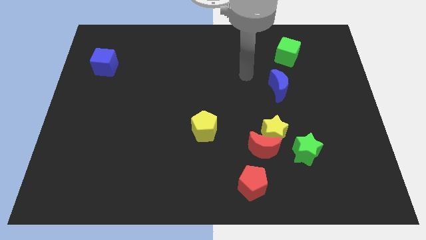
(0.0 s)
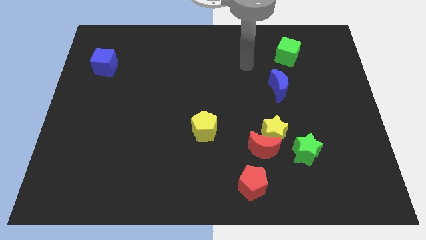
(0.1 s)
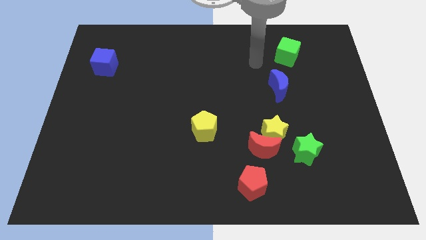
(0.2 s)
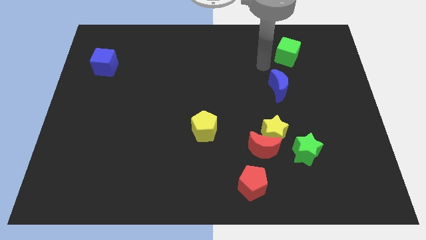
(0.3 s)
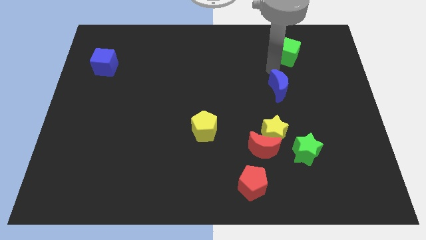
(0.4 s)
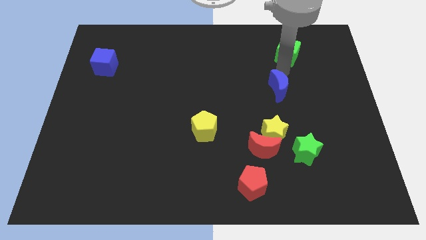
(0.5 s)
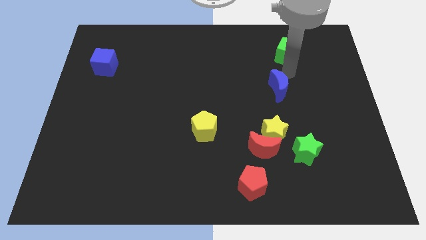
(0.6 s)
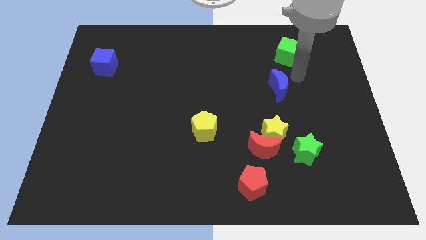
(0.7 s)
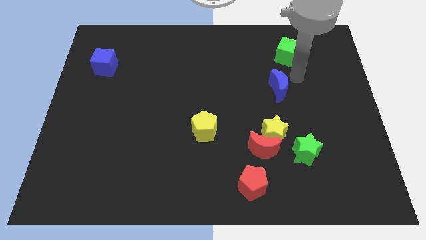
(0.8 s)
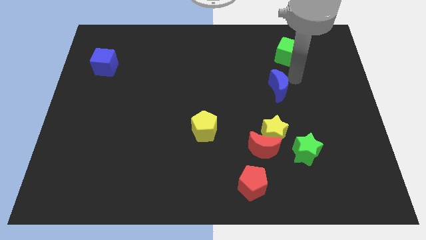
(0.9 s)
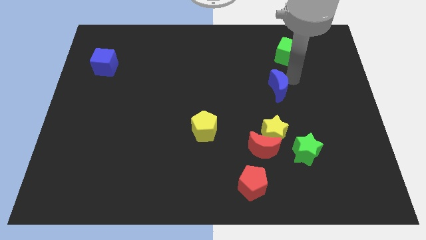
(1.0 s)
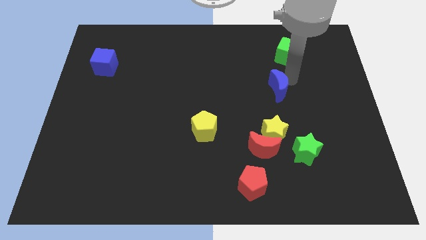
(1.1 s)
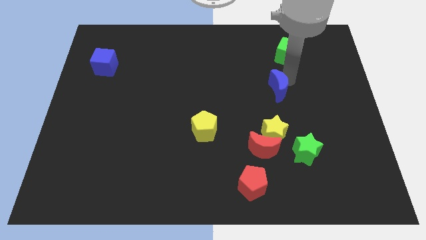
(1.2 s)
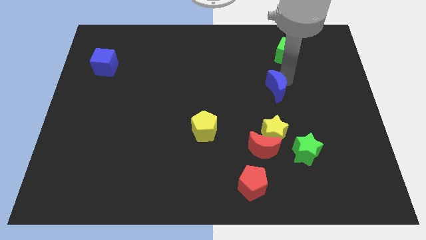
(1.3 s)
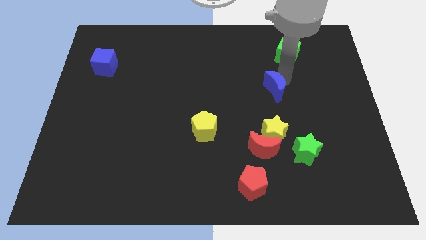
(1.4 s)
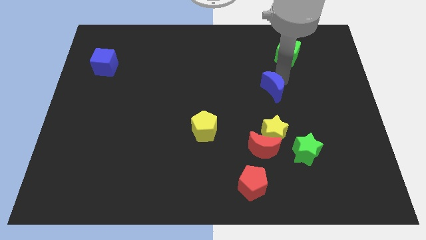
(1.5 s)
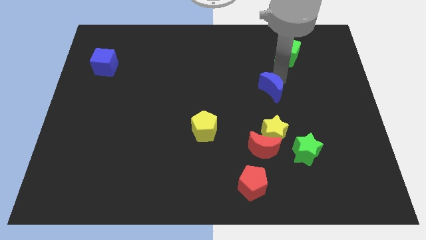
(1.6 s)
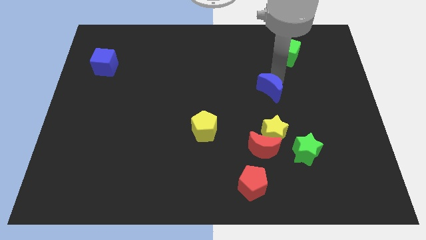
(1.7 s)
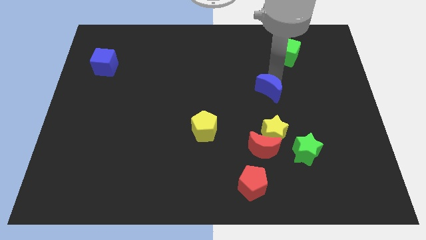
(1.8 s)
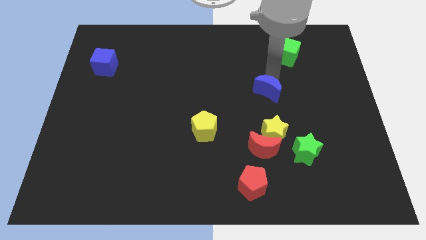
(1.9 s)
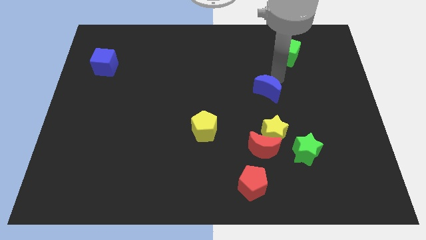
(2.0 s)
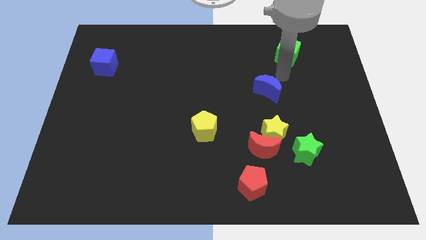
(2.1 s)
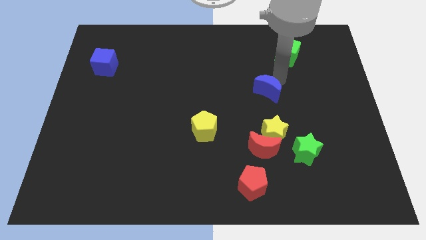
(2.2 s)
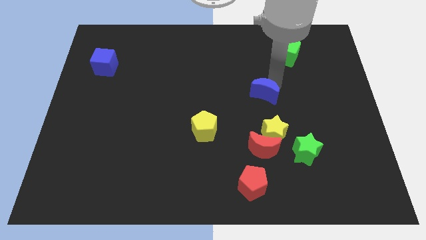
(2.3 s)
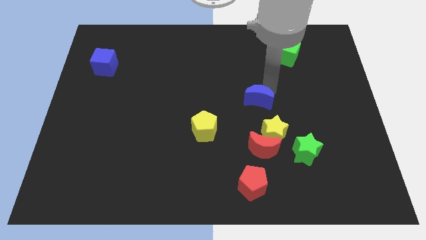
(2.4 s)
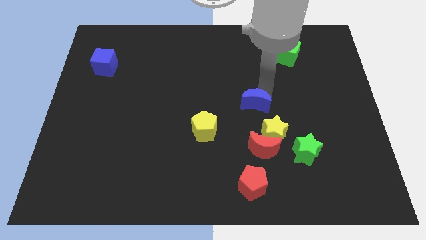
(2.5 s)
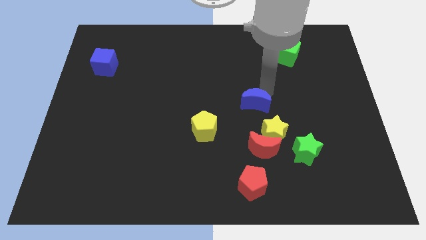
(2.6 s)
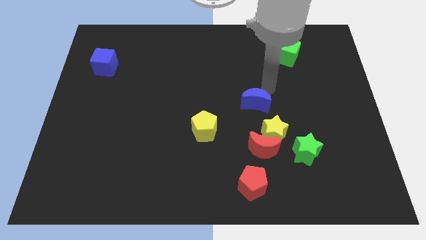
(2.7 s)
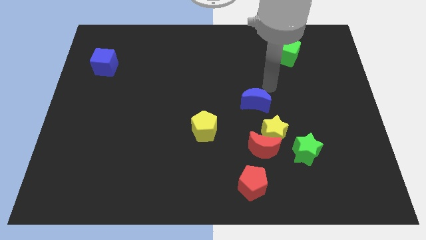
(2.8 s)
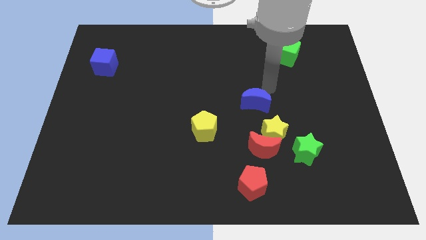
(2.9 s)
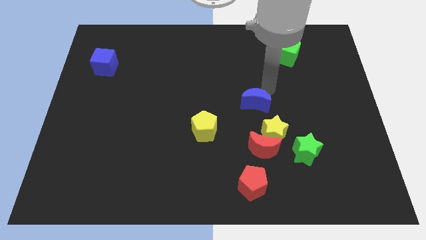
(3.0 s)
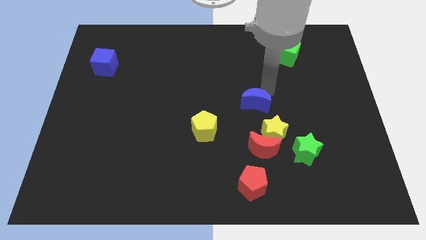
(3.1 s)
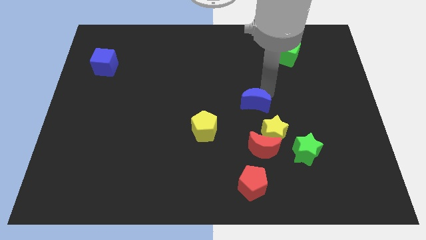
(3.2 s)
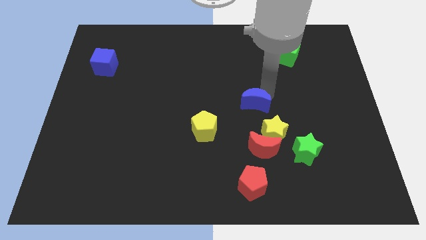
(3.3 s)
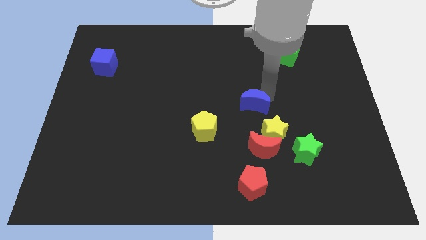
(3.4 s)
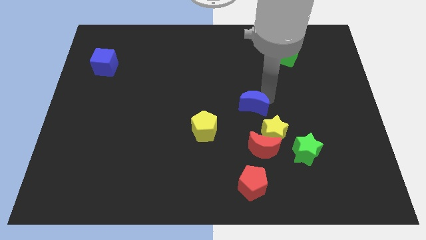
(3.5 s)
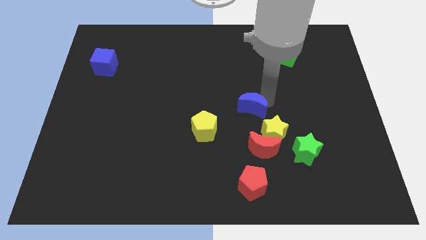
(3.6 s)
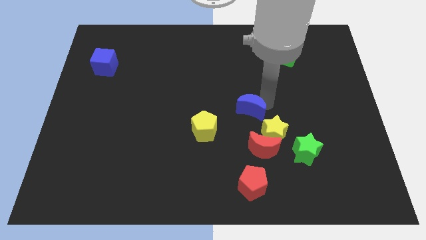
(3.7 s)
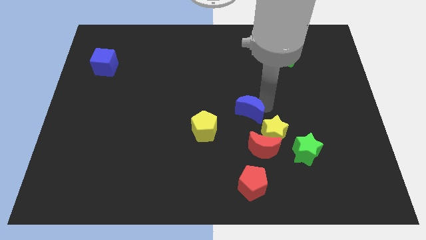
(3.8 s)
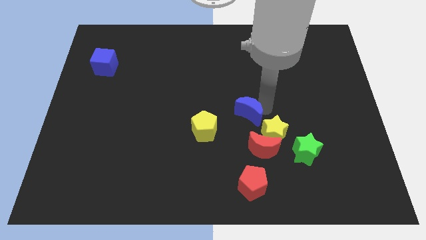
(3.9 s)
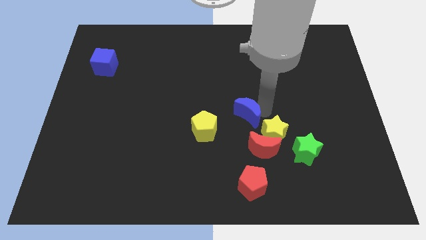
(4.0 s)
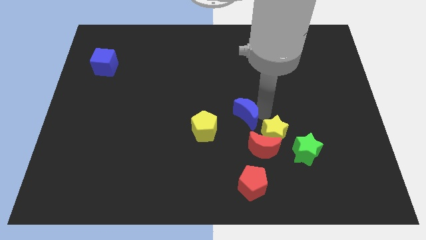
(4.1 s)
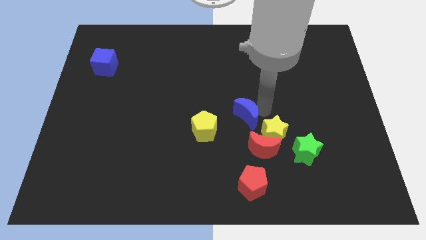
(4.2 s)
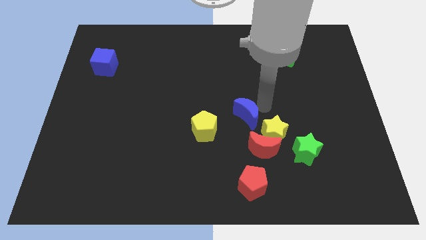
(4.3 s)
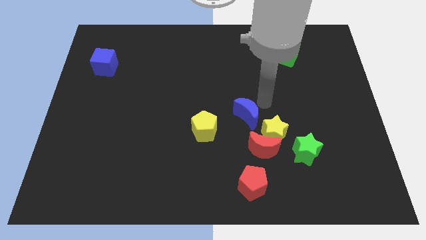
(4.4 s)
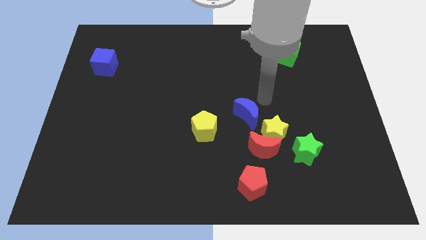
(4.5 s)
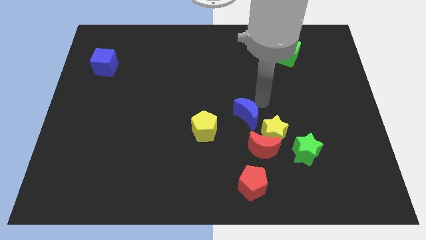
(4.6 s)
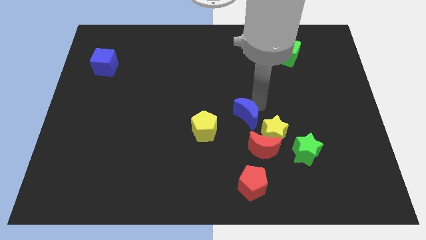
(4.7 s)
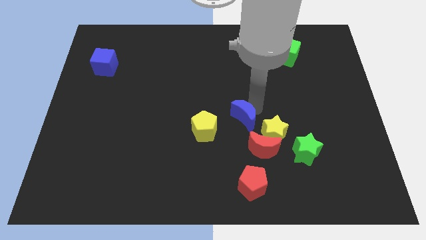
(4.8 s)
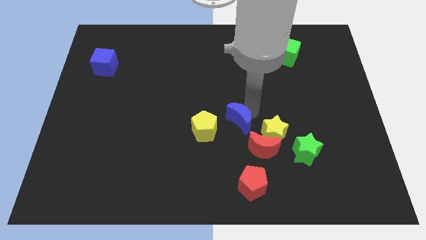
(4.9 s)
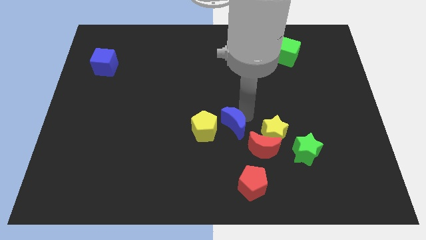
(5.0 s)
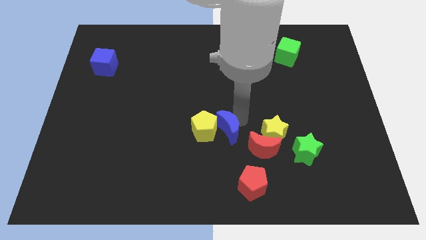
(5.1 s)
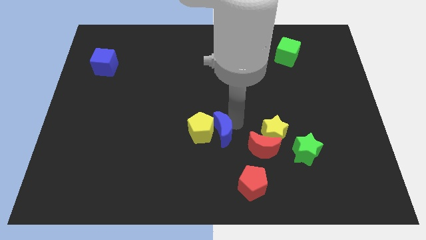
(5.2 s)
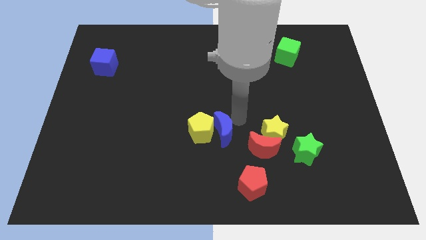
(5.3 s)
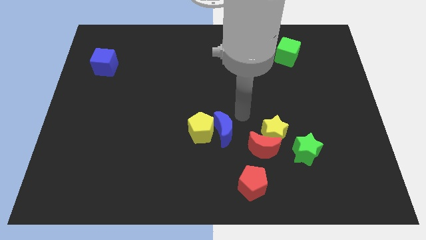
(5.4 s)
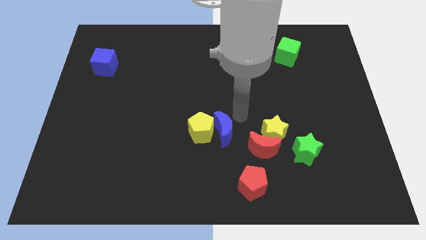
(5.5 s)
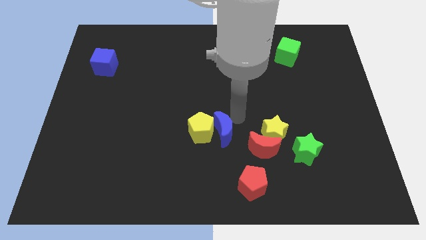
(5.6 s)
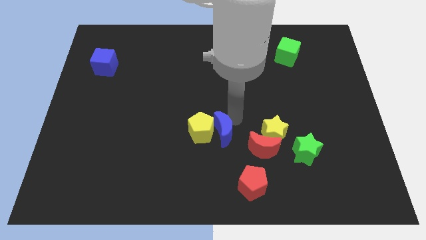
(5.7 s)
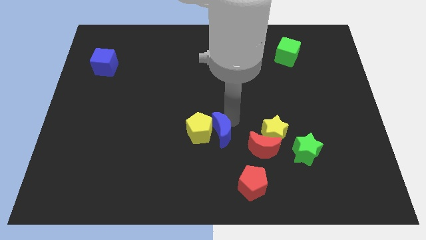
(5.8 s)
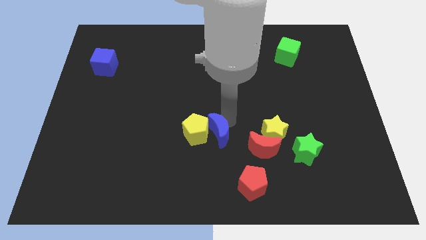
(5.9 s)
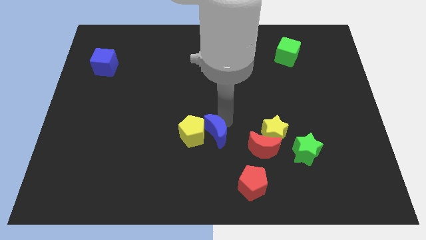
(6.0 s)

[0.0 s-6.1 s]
slide the blue moon down and left

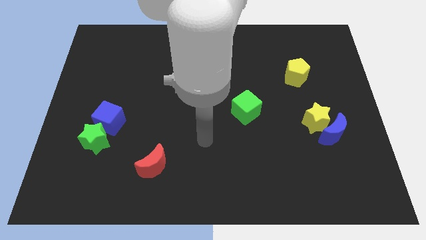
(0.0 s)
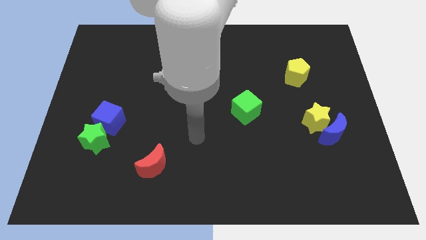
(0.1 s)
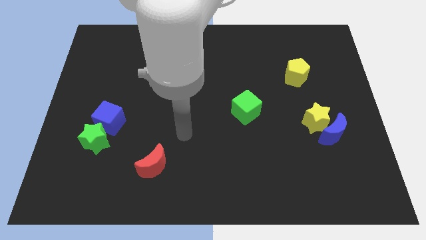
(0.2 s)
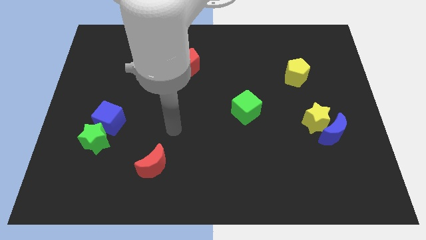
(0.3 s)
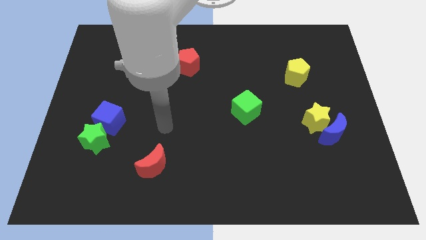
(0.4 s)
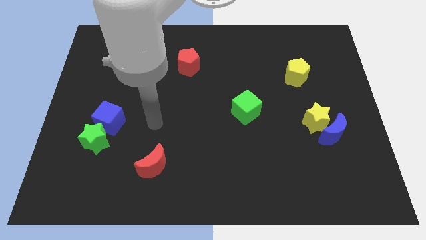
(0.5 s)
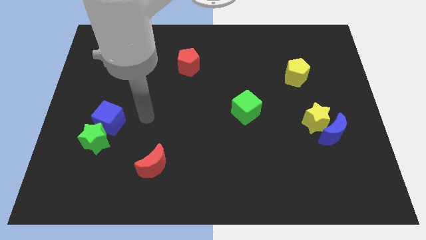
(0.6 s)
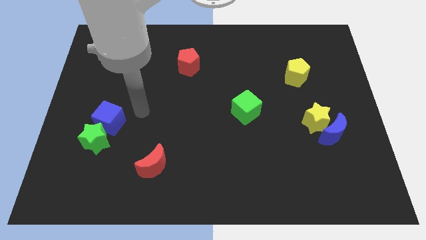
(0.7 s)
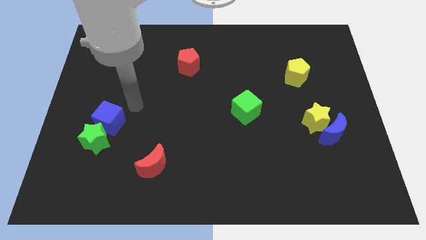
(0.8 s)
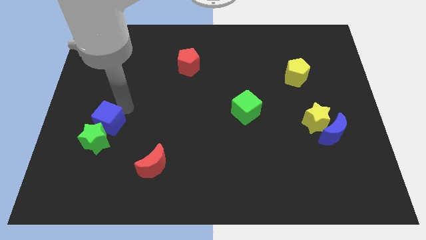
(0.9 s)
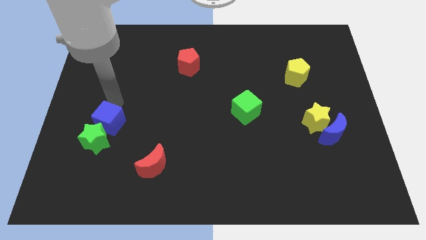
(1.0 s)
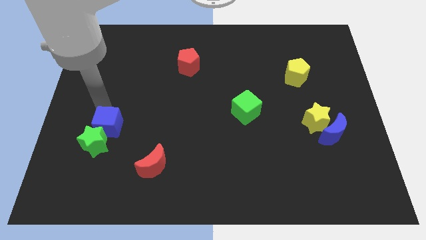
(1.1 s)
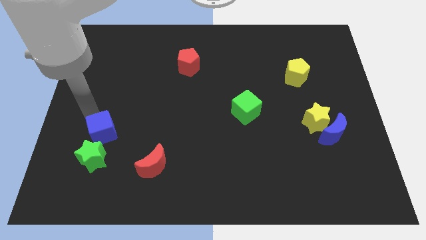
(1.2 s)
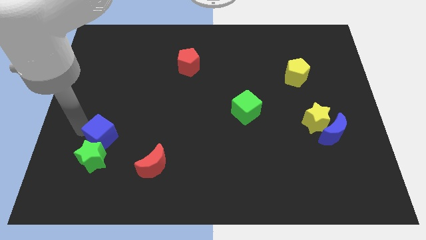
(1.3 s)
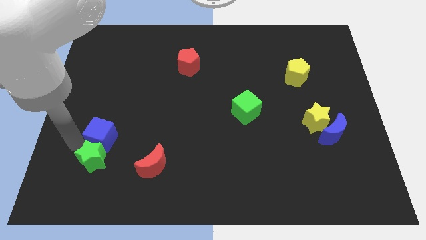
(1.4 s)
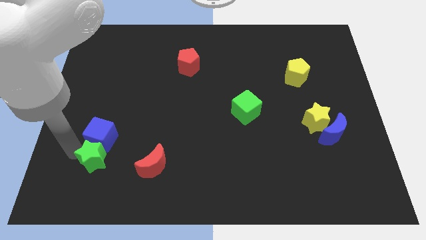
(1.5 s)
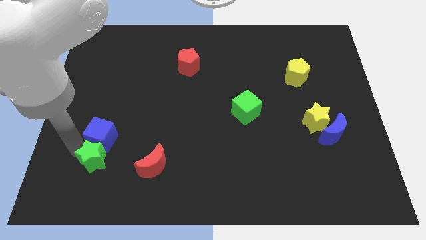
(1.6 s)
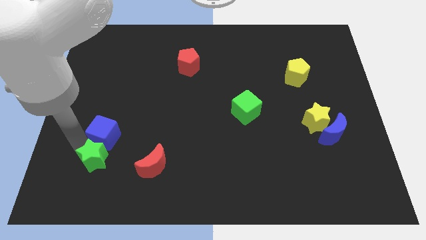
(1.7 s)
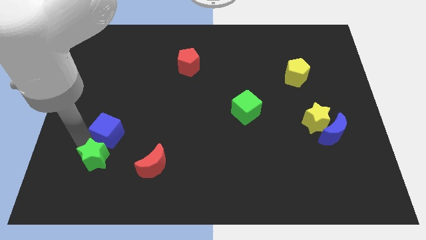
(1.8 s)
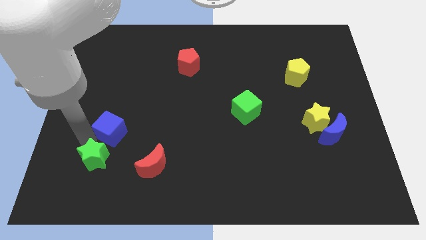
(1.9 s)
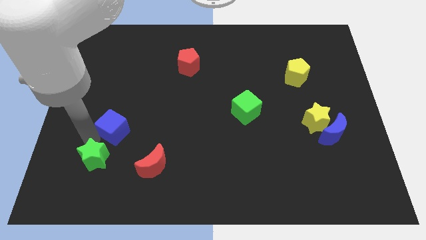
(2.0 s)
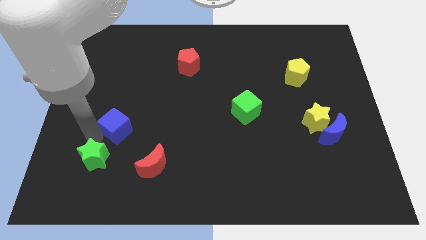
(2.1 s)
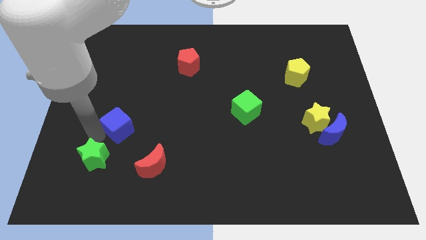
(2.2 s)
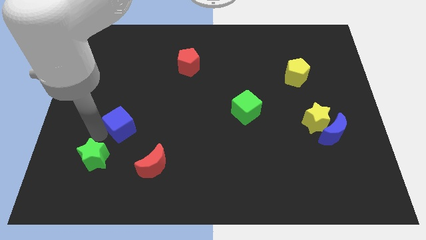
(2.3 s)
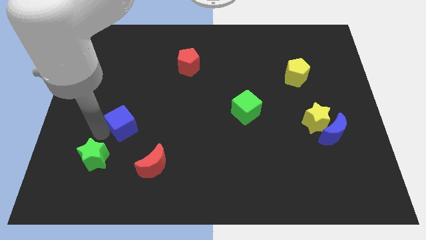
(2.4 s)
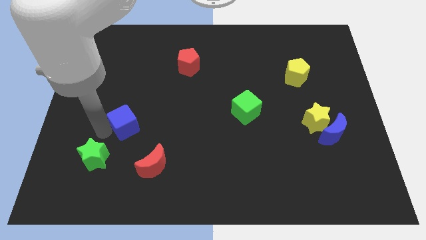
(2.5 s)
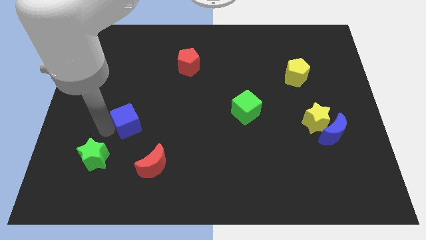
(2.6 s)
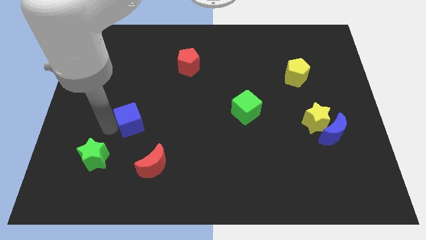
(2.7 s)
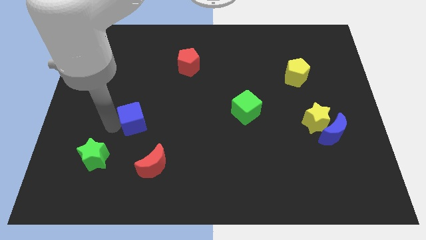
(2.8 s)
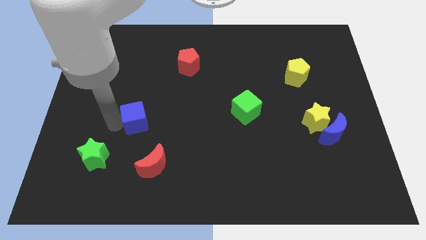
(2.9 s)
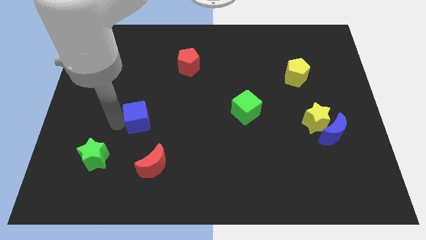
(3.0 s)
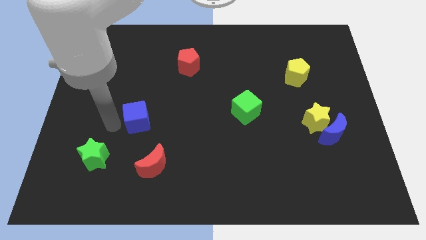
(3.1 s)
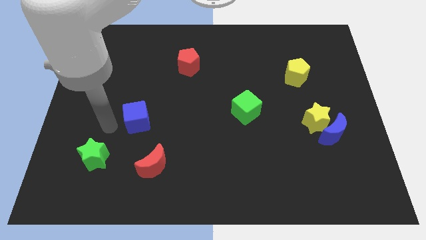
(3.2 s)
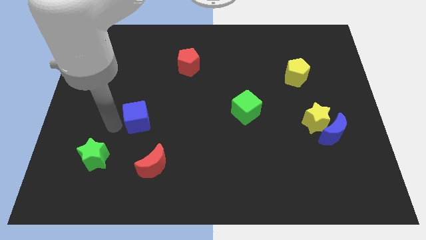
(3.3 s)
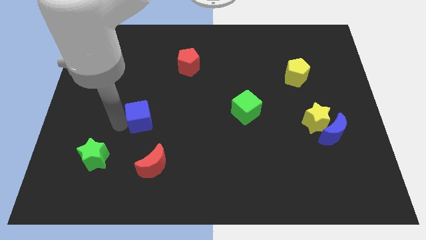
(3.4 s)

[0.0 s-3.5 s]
slide the blue cube a little right
